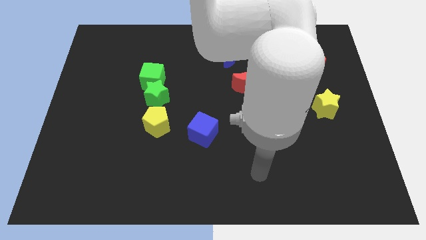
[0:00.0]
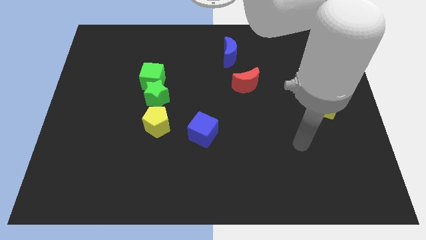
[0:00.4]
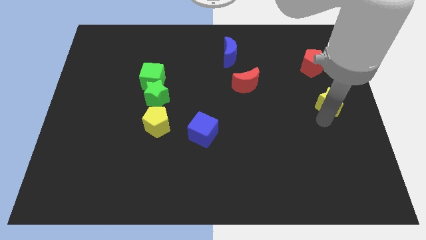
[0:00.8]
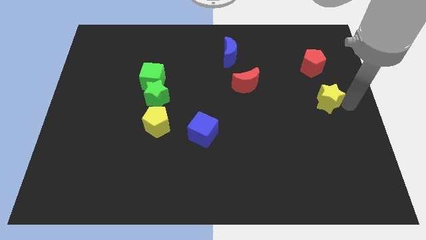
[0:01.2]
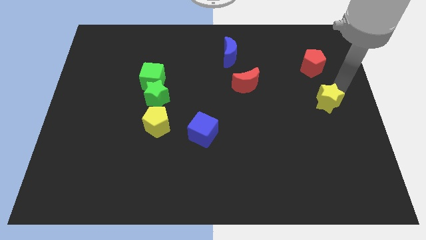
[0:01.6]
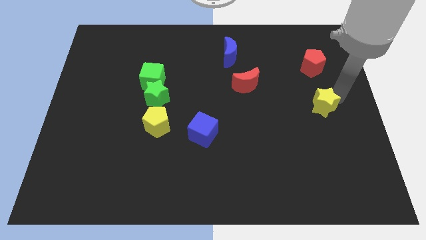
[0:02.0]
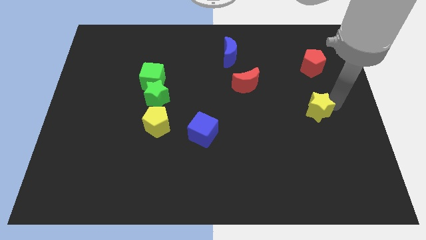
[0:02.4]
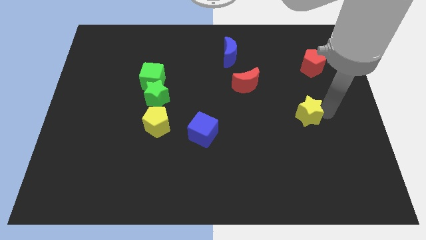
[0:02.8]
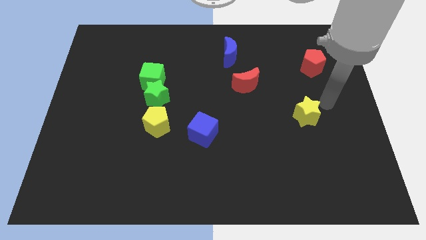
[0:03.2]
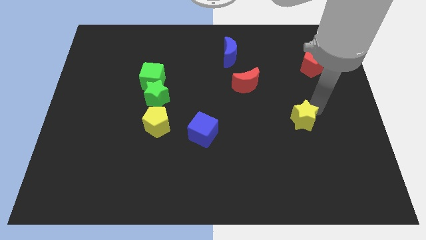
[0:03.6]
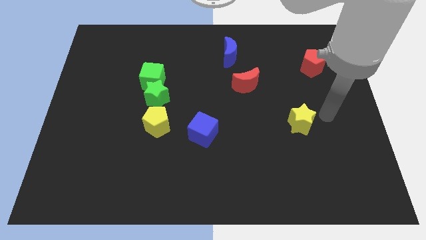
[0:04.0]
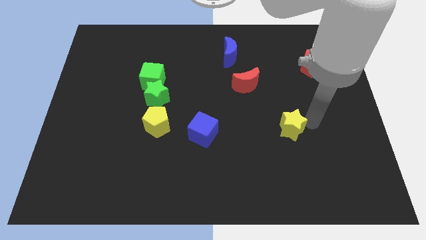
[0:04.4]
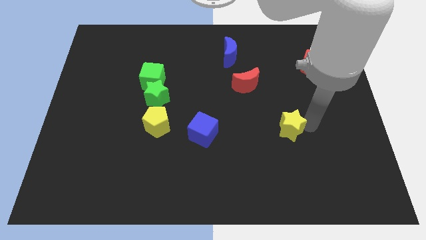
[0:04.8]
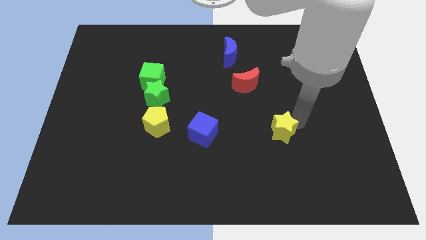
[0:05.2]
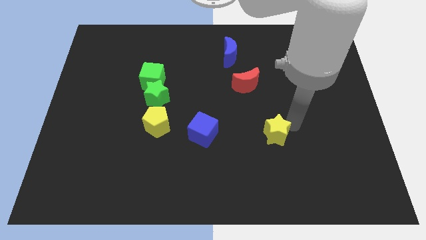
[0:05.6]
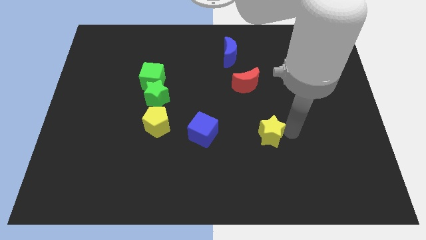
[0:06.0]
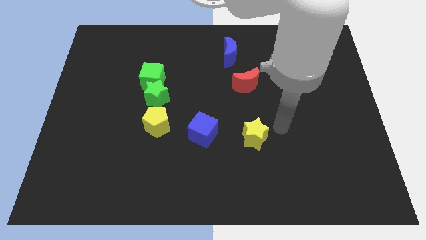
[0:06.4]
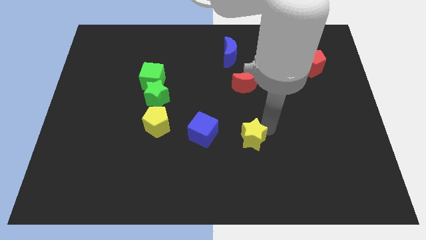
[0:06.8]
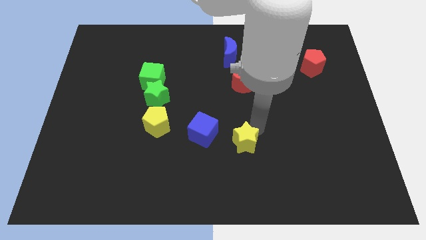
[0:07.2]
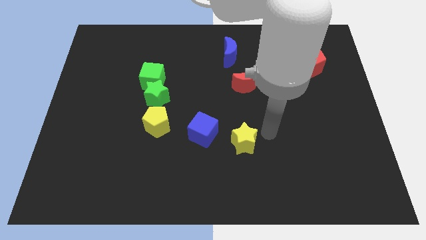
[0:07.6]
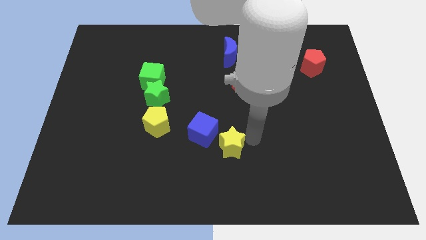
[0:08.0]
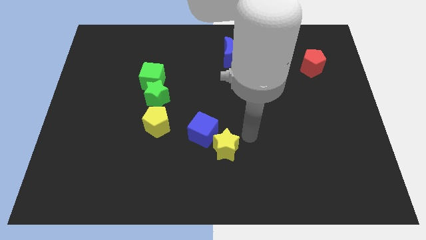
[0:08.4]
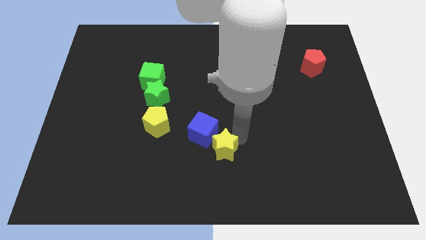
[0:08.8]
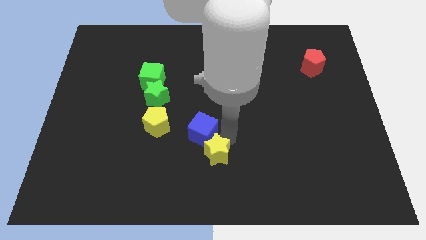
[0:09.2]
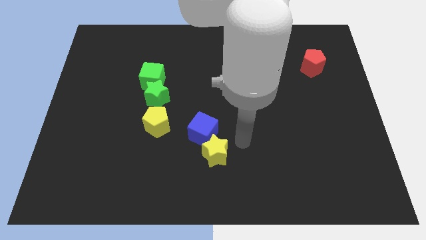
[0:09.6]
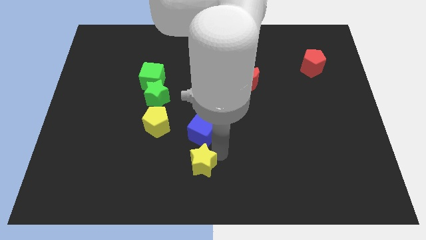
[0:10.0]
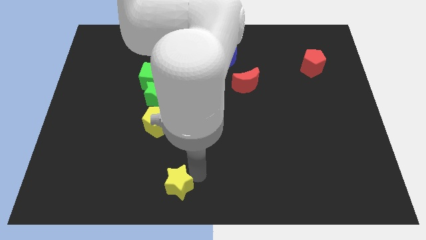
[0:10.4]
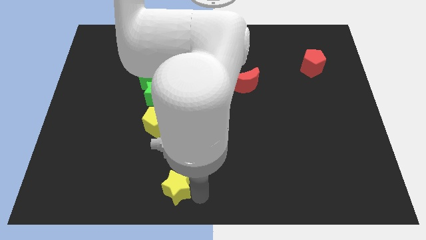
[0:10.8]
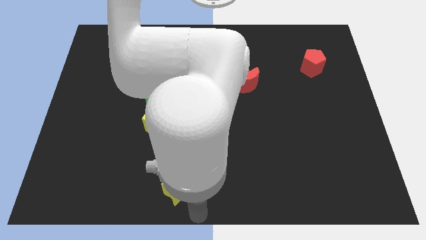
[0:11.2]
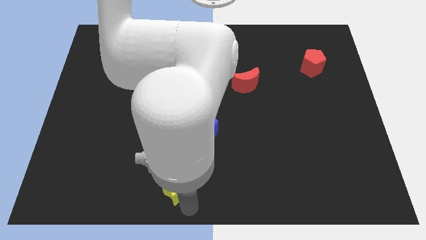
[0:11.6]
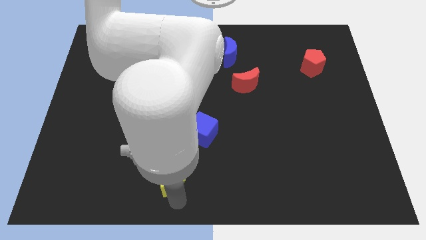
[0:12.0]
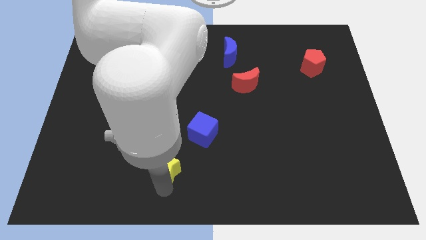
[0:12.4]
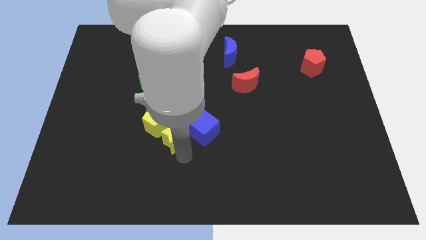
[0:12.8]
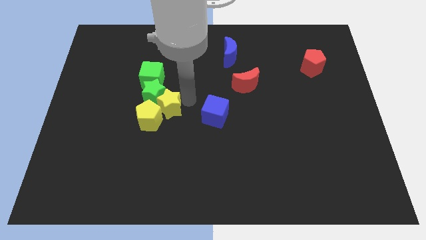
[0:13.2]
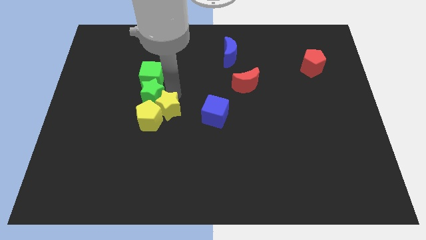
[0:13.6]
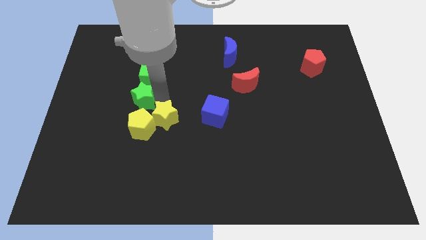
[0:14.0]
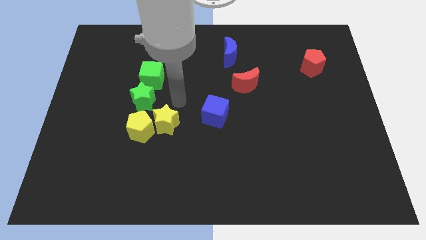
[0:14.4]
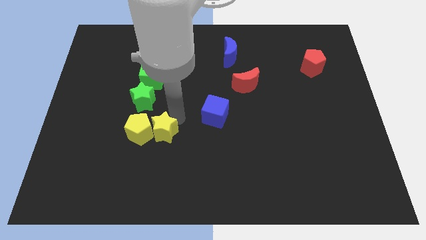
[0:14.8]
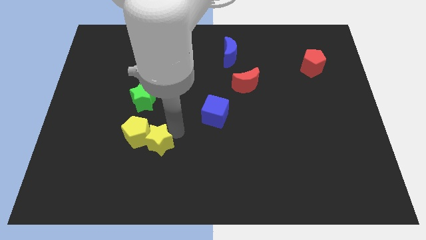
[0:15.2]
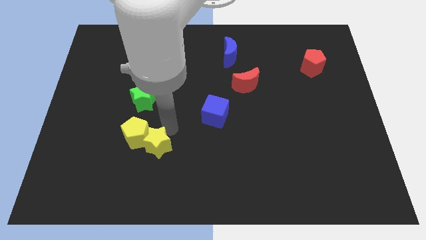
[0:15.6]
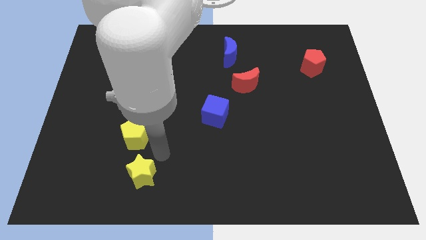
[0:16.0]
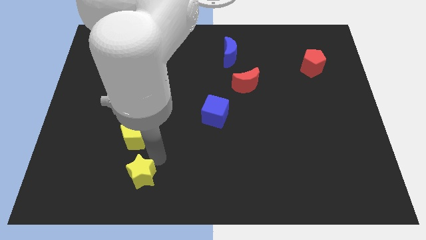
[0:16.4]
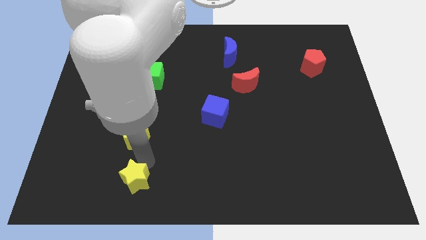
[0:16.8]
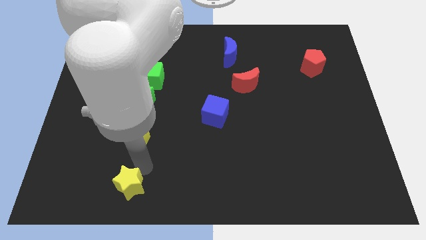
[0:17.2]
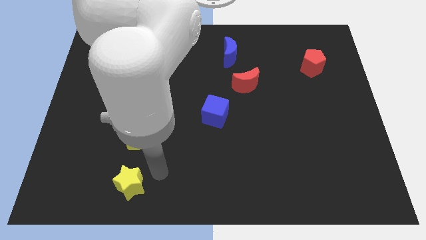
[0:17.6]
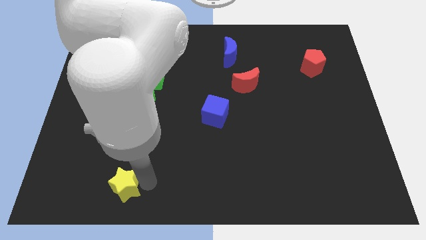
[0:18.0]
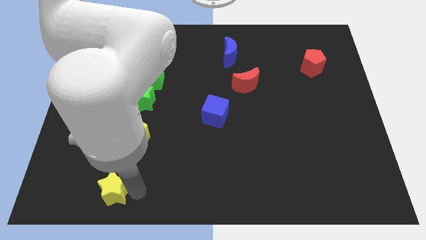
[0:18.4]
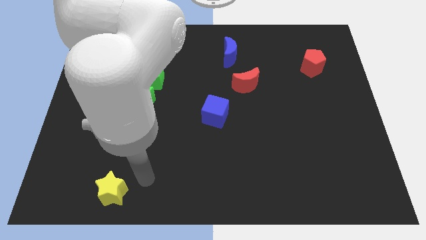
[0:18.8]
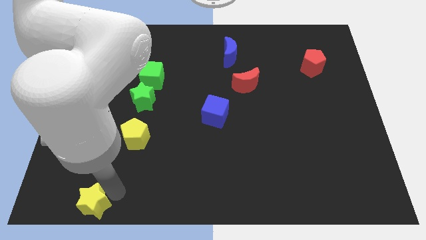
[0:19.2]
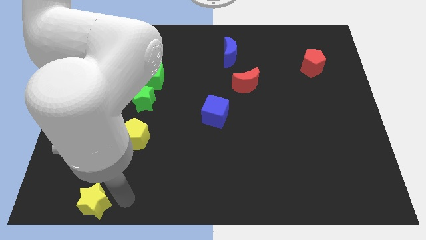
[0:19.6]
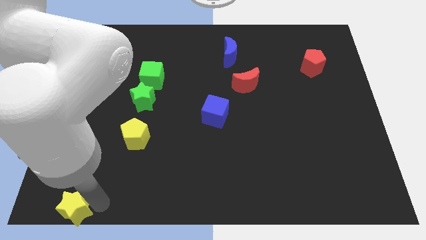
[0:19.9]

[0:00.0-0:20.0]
put the yellow star to the lower left corner

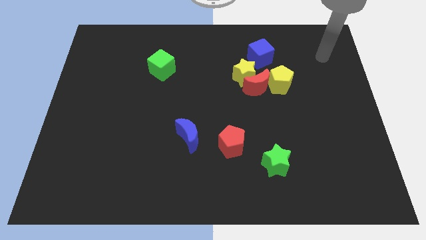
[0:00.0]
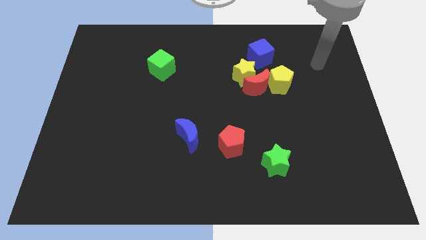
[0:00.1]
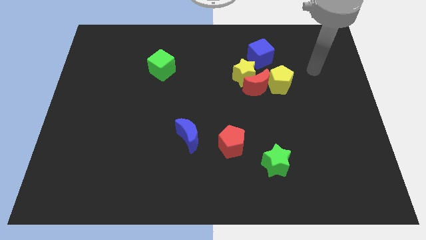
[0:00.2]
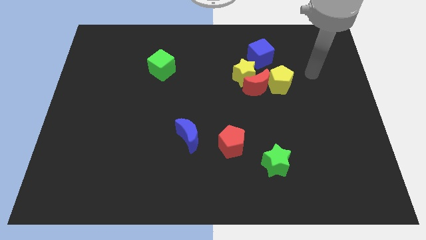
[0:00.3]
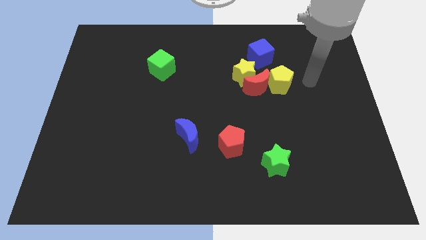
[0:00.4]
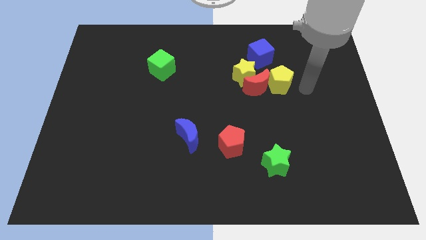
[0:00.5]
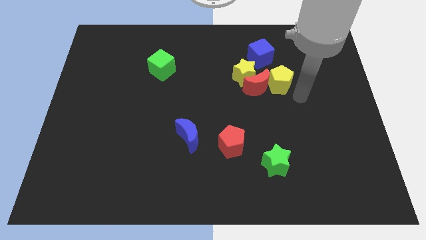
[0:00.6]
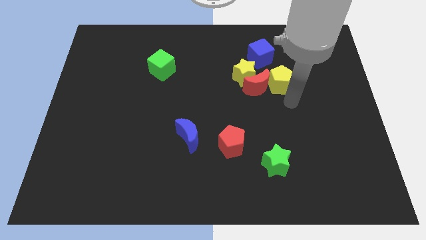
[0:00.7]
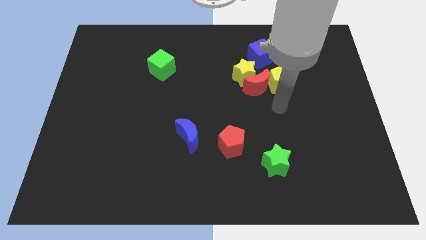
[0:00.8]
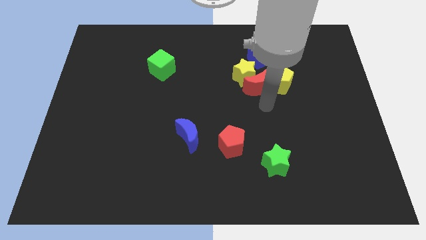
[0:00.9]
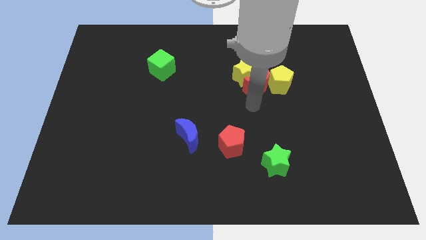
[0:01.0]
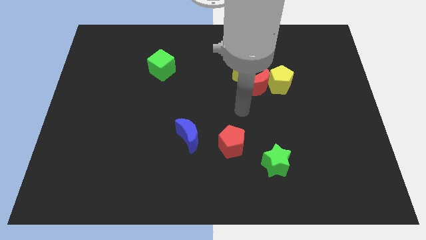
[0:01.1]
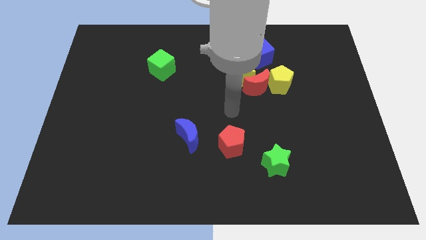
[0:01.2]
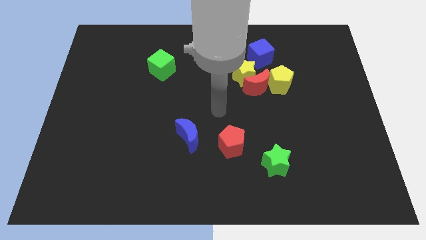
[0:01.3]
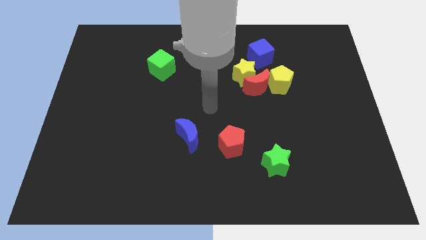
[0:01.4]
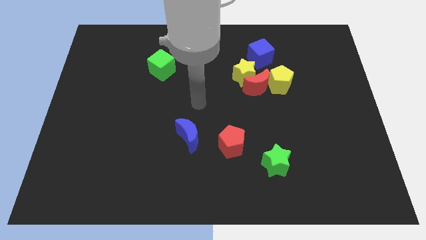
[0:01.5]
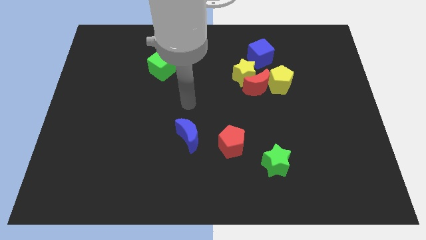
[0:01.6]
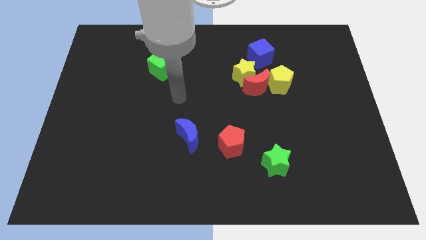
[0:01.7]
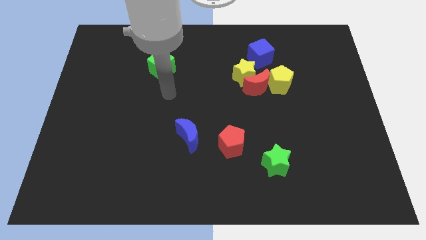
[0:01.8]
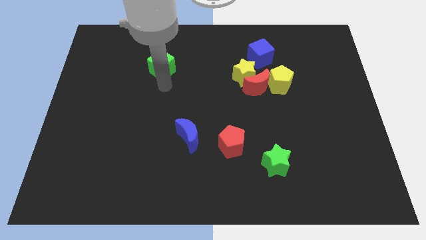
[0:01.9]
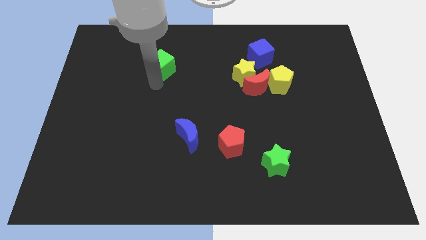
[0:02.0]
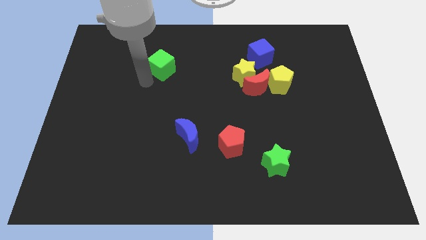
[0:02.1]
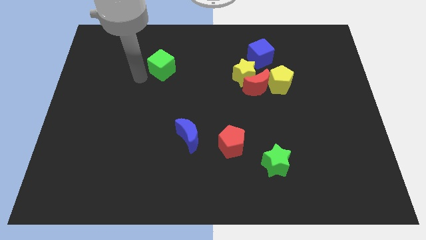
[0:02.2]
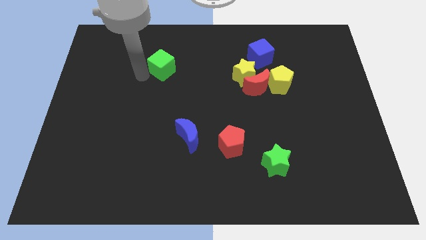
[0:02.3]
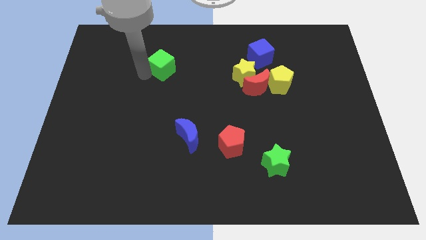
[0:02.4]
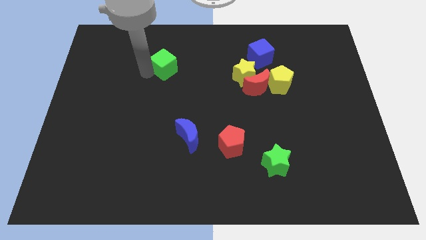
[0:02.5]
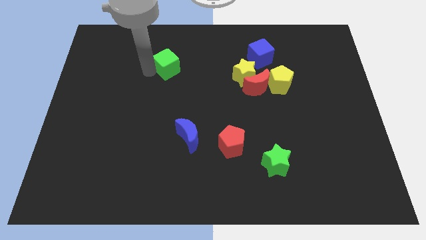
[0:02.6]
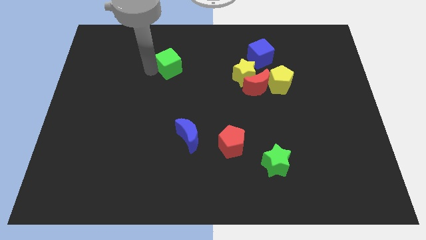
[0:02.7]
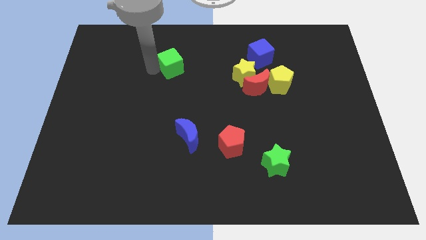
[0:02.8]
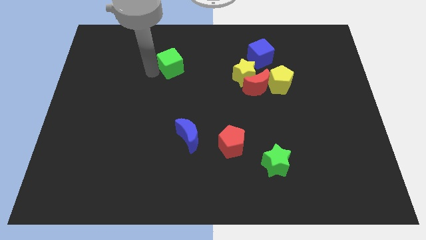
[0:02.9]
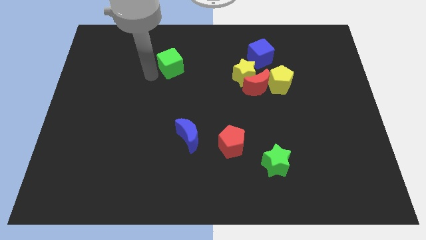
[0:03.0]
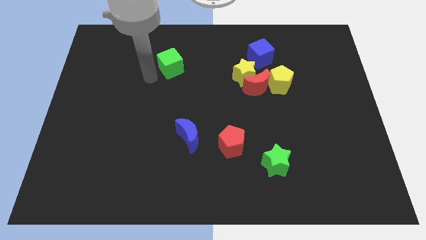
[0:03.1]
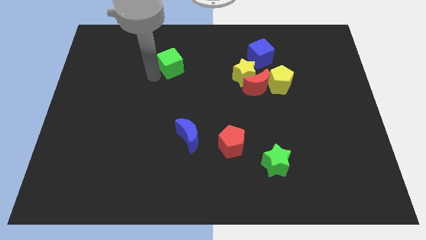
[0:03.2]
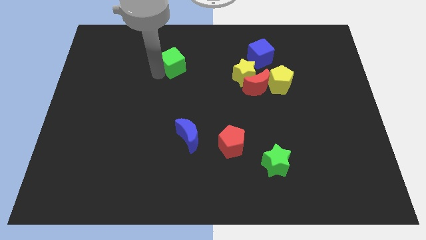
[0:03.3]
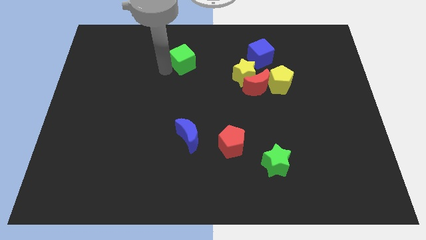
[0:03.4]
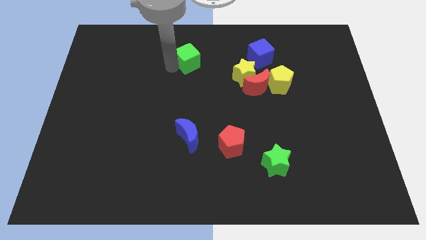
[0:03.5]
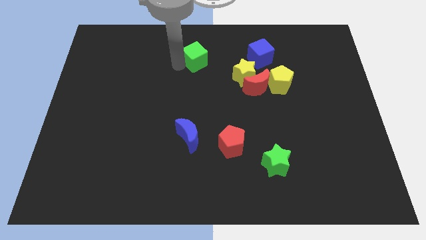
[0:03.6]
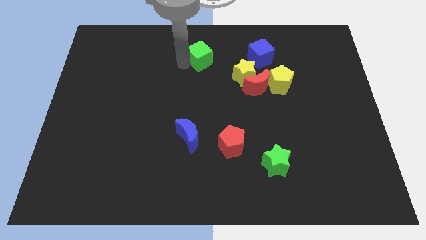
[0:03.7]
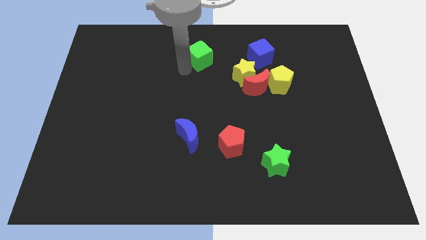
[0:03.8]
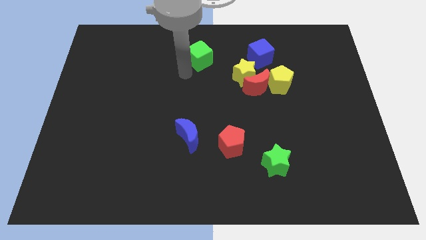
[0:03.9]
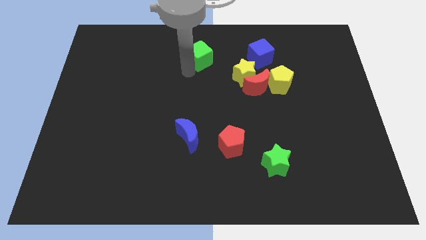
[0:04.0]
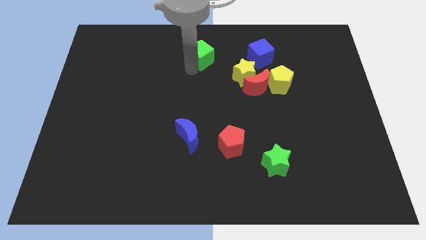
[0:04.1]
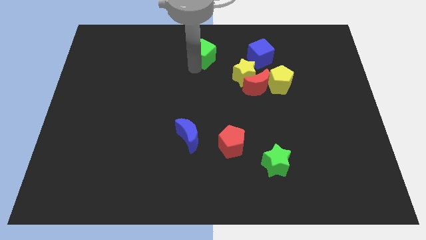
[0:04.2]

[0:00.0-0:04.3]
push the green cube to the top side
